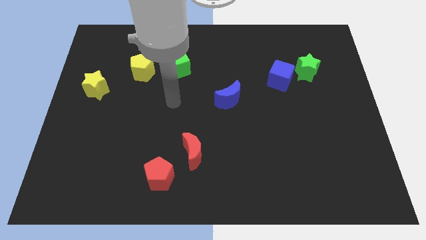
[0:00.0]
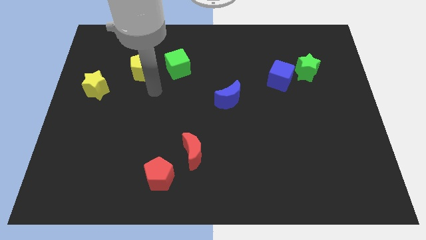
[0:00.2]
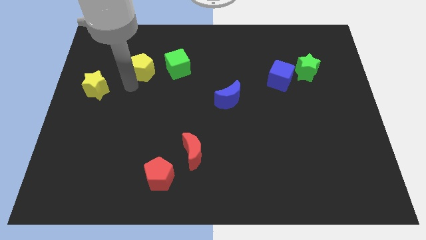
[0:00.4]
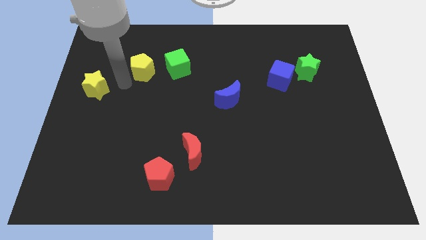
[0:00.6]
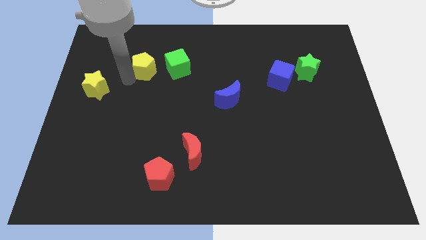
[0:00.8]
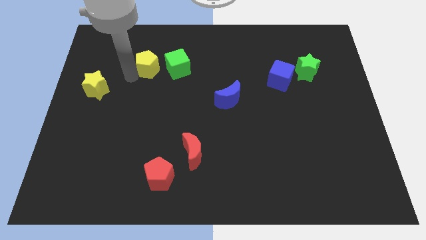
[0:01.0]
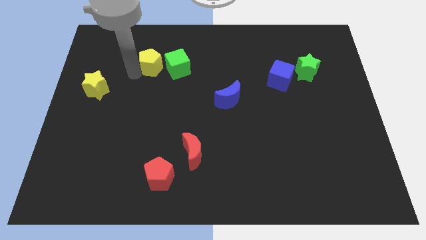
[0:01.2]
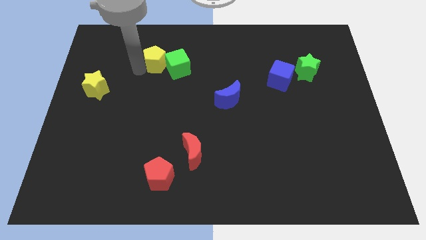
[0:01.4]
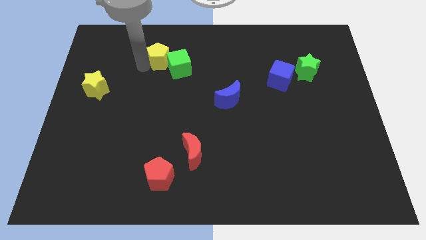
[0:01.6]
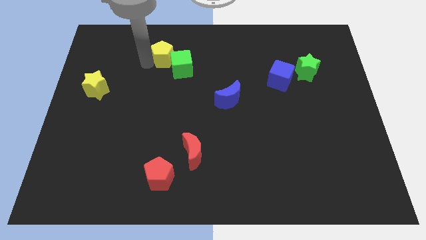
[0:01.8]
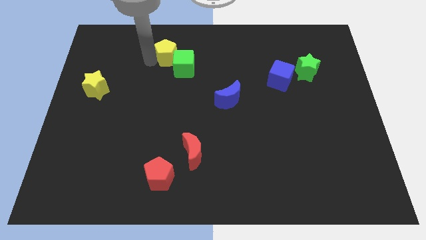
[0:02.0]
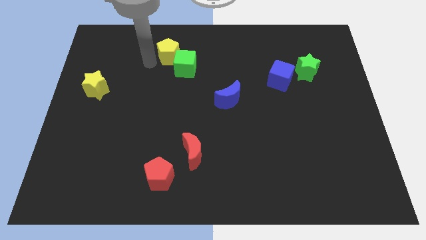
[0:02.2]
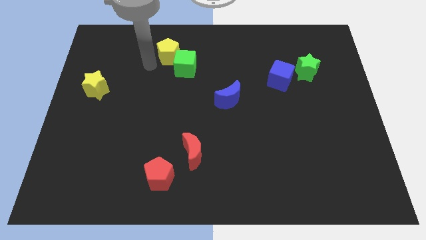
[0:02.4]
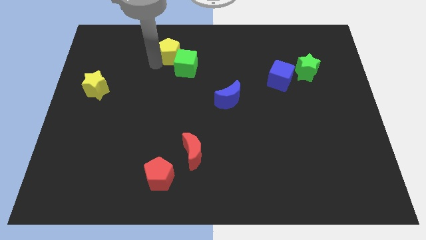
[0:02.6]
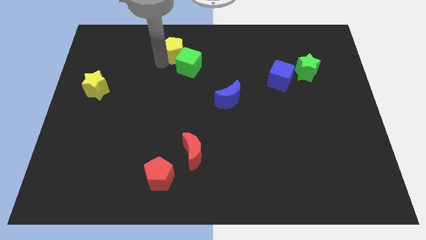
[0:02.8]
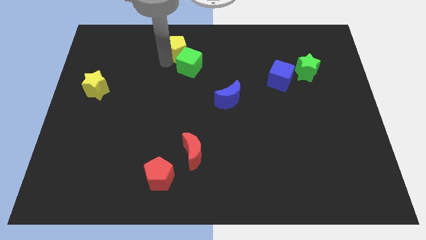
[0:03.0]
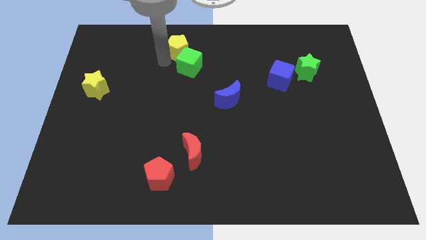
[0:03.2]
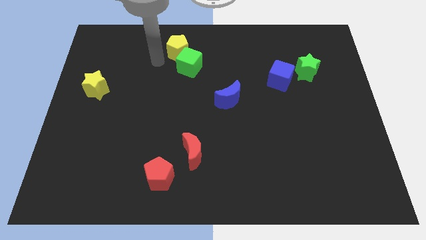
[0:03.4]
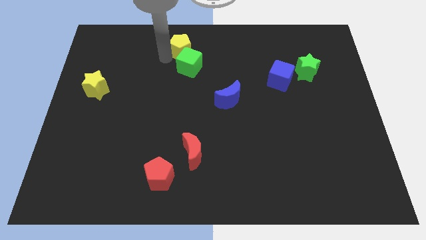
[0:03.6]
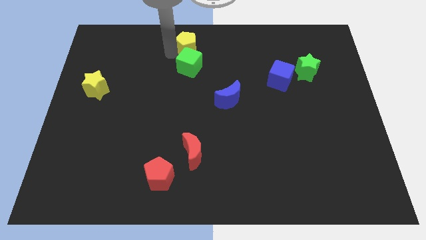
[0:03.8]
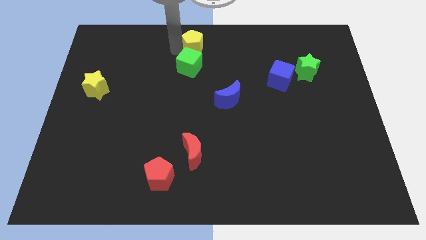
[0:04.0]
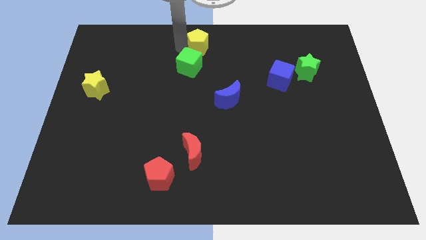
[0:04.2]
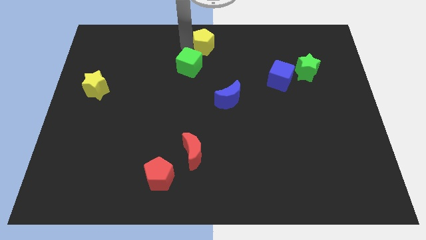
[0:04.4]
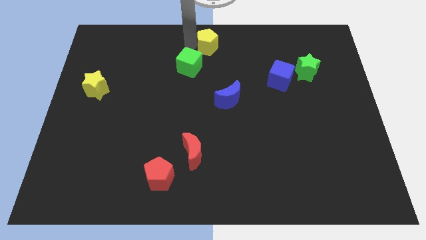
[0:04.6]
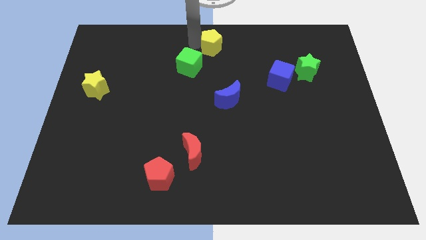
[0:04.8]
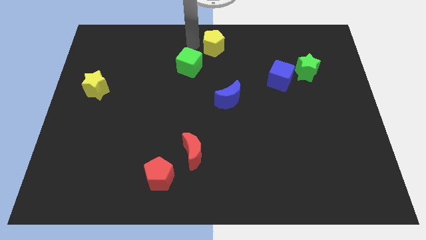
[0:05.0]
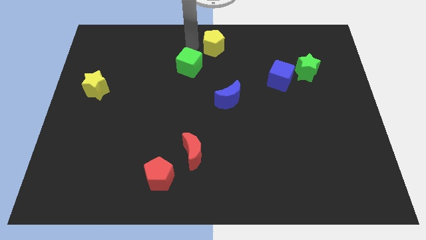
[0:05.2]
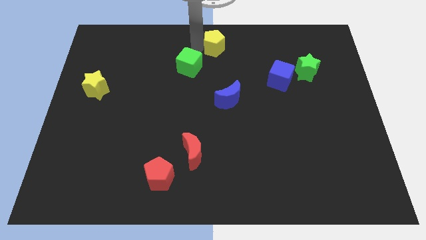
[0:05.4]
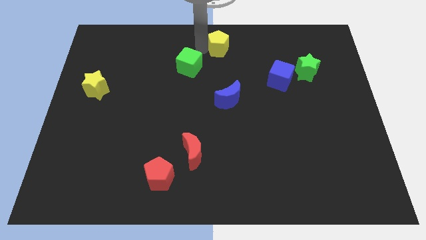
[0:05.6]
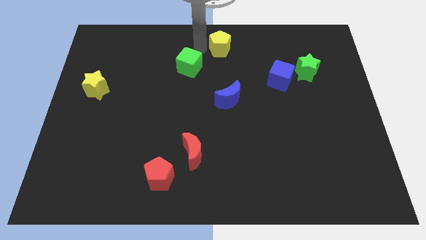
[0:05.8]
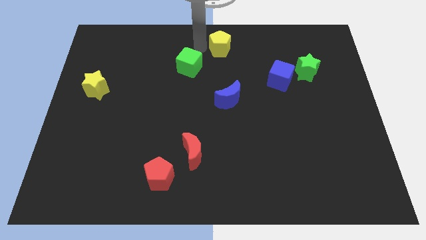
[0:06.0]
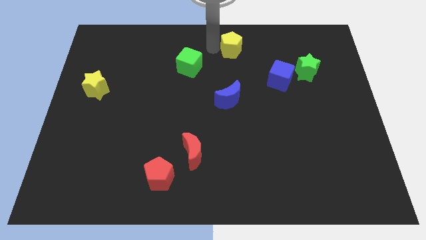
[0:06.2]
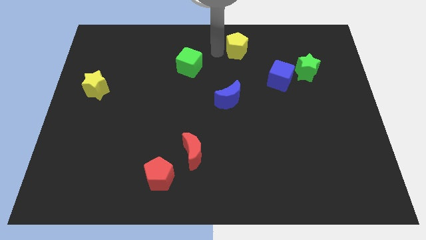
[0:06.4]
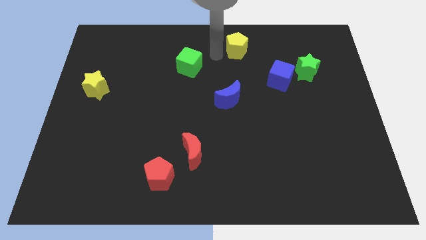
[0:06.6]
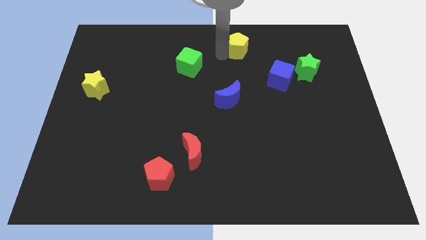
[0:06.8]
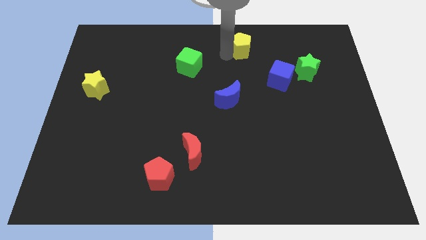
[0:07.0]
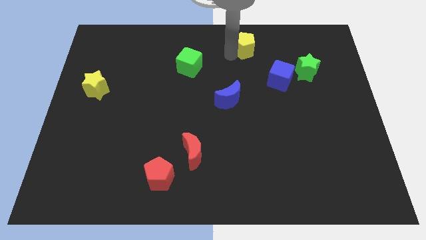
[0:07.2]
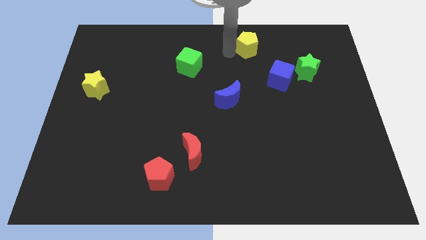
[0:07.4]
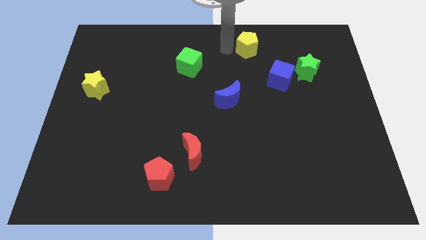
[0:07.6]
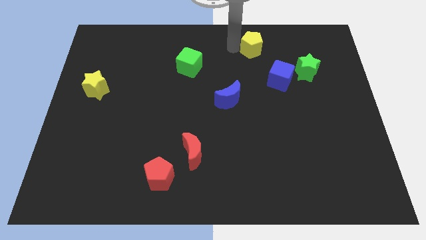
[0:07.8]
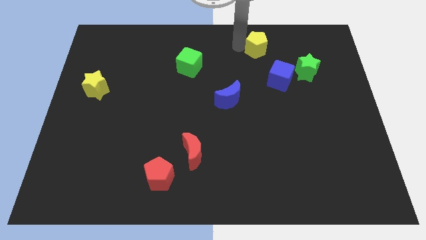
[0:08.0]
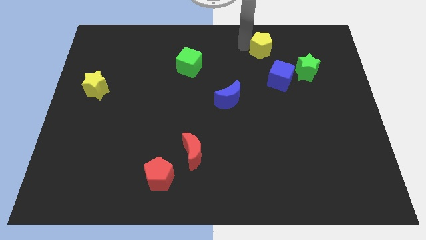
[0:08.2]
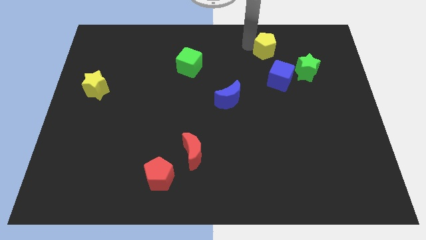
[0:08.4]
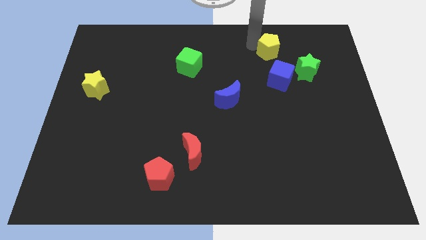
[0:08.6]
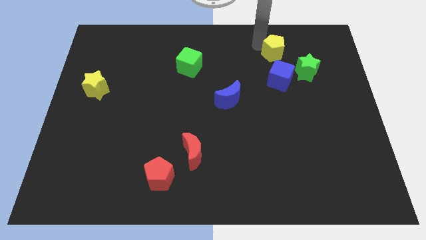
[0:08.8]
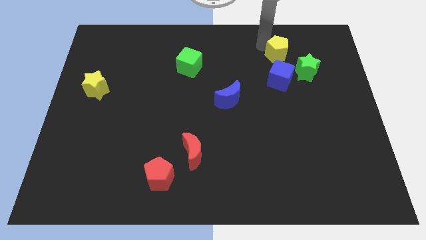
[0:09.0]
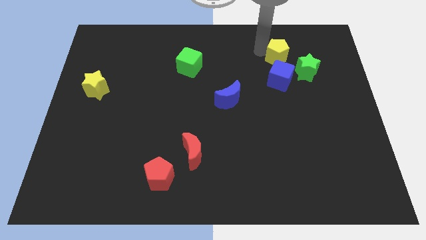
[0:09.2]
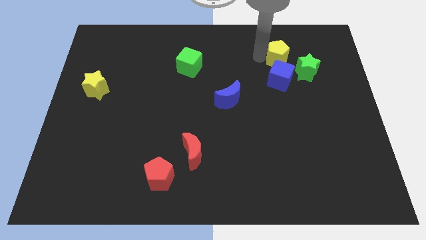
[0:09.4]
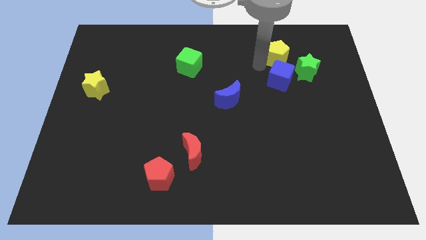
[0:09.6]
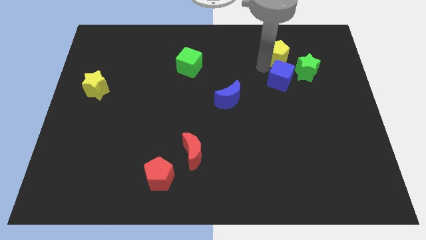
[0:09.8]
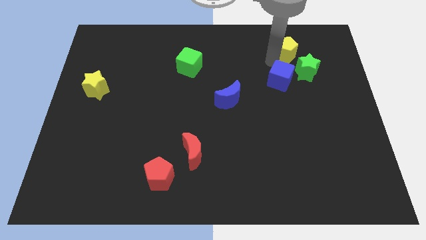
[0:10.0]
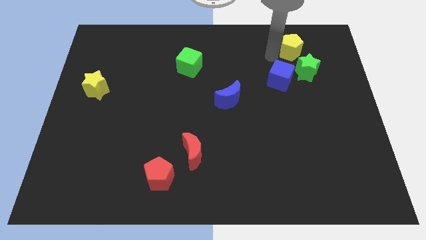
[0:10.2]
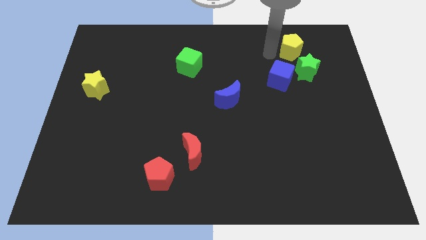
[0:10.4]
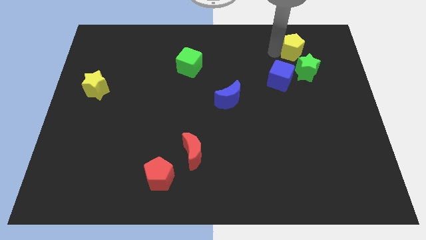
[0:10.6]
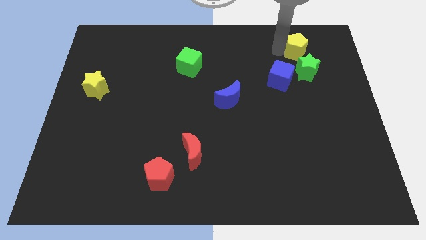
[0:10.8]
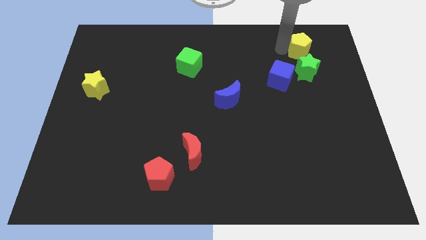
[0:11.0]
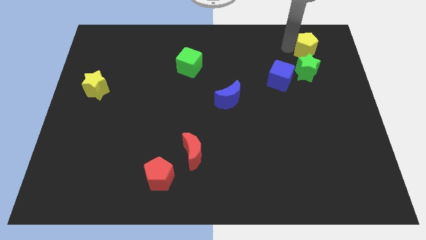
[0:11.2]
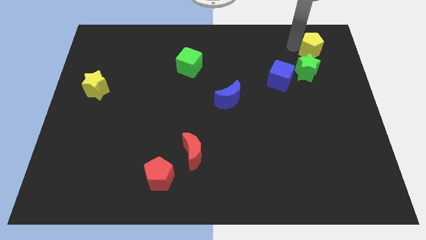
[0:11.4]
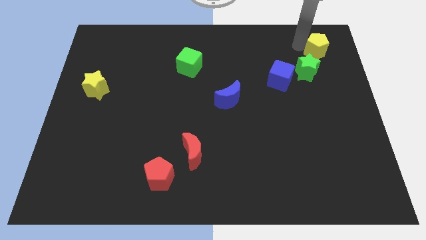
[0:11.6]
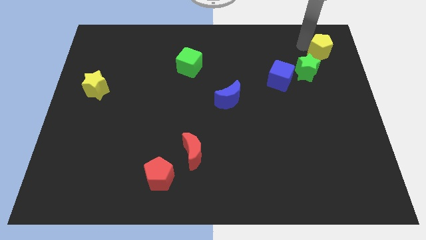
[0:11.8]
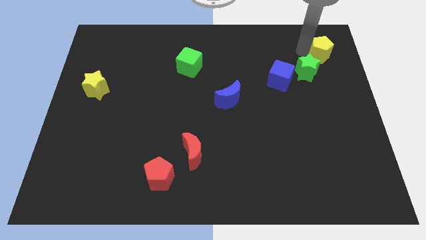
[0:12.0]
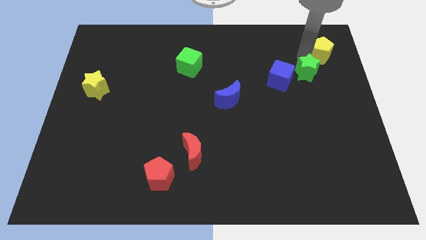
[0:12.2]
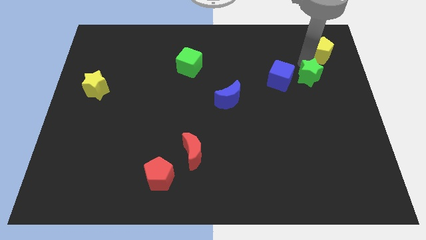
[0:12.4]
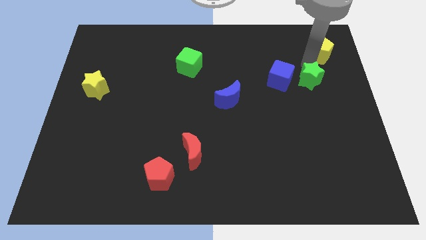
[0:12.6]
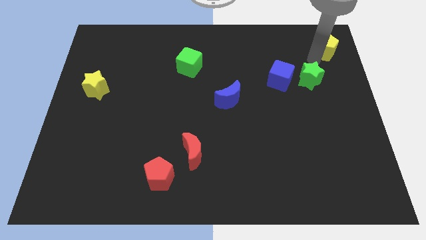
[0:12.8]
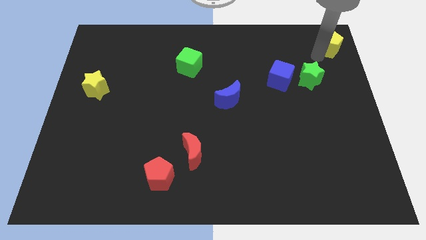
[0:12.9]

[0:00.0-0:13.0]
slide the yellow pentagon to the top right corner

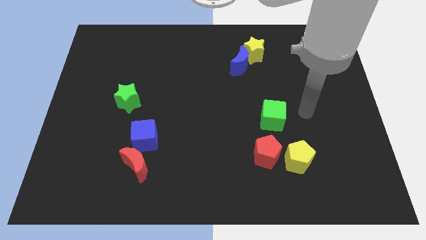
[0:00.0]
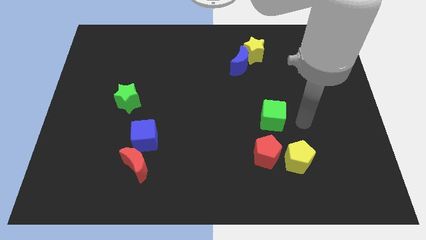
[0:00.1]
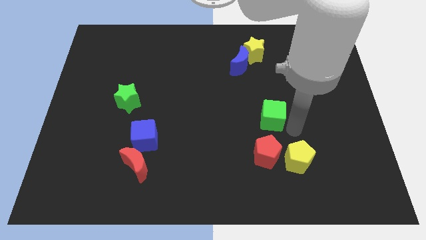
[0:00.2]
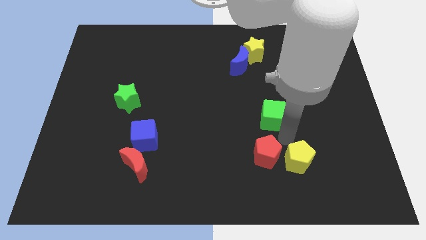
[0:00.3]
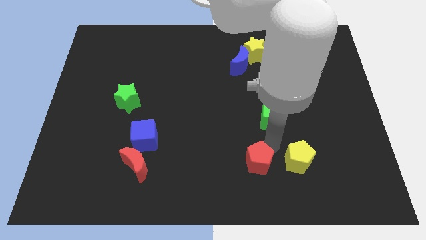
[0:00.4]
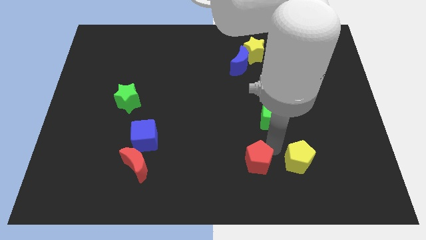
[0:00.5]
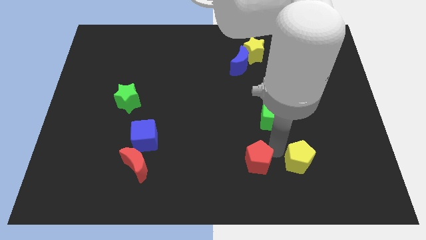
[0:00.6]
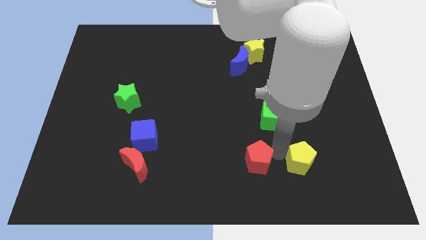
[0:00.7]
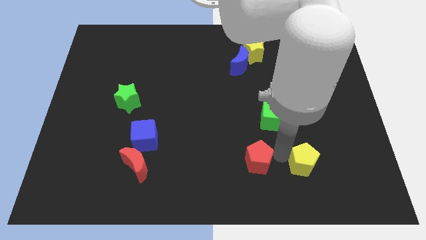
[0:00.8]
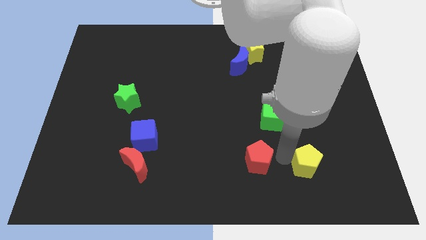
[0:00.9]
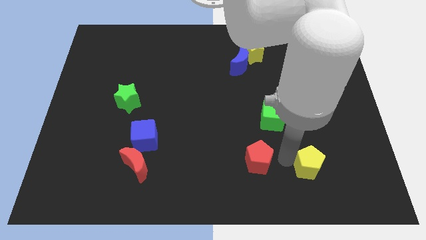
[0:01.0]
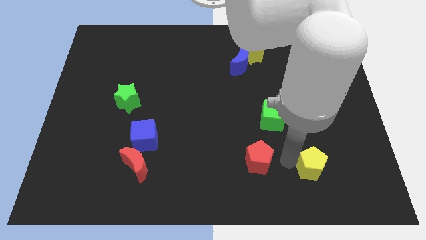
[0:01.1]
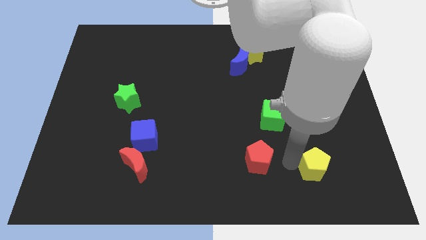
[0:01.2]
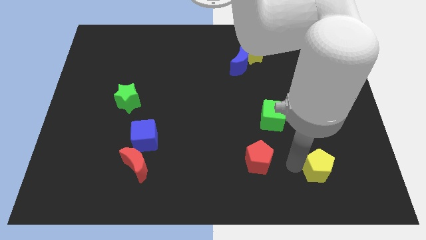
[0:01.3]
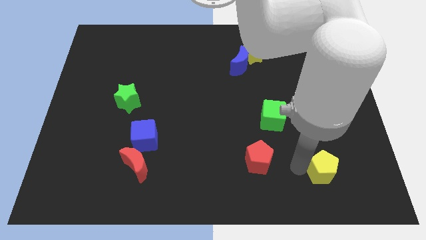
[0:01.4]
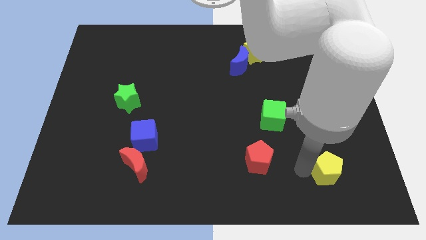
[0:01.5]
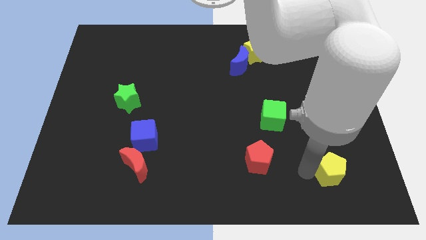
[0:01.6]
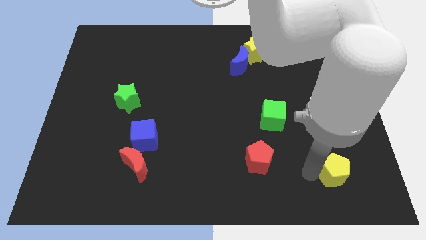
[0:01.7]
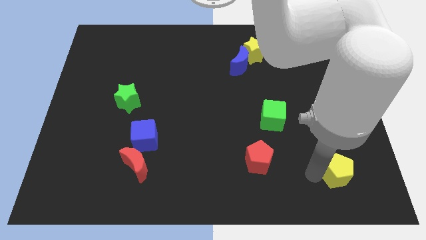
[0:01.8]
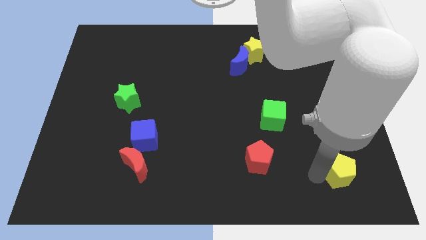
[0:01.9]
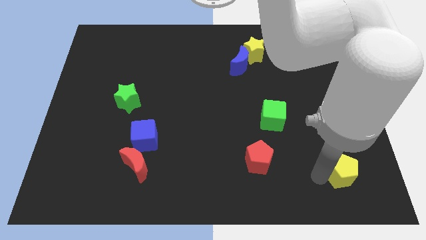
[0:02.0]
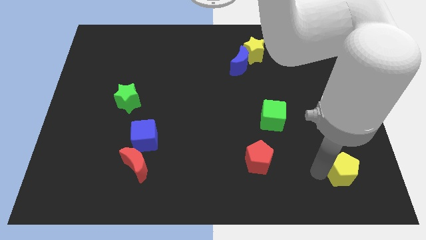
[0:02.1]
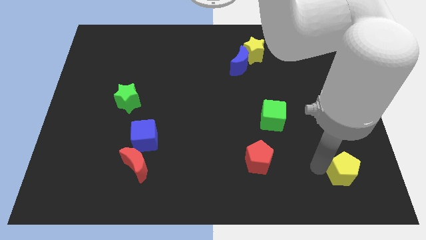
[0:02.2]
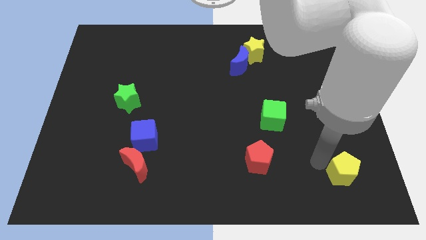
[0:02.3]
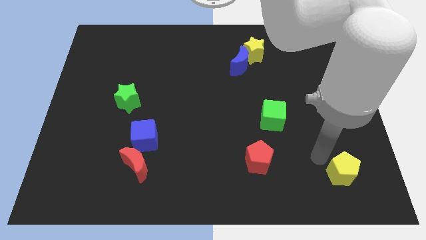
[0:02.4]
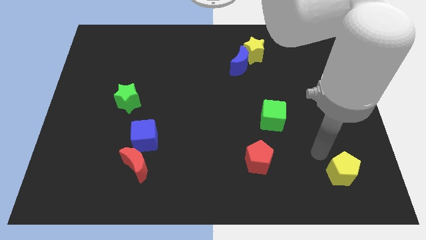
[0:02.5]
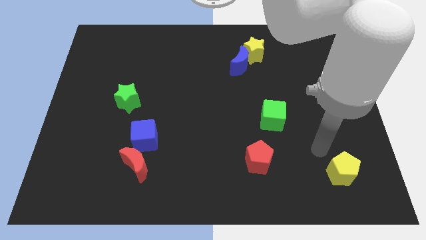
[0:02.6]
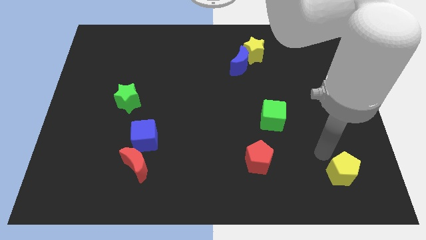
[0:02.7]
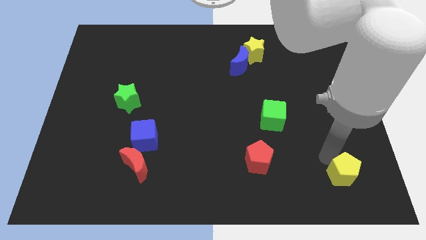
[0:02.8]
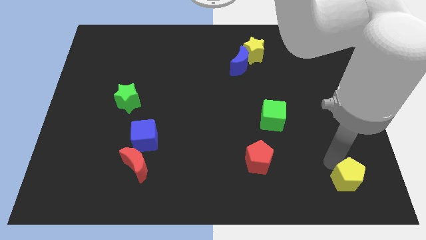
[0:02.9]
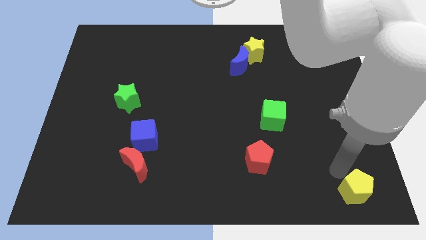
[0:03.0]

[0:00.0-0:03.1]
put the yellow pentagon to the lower right corner
